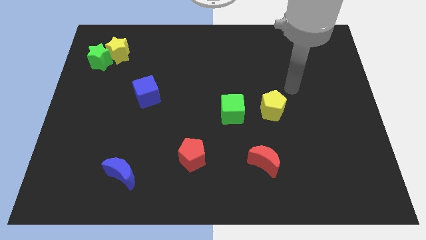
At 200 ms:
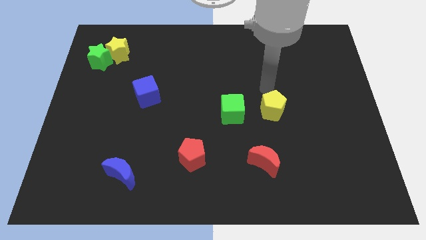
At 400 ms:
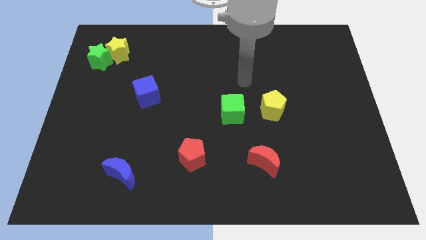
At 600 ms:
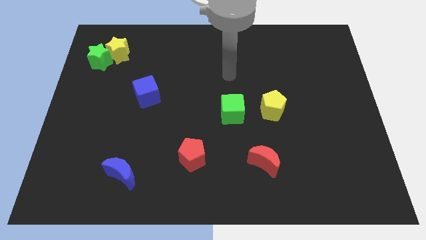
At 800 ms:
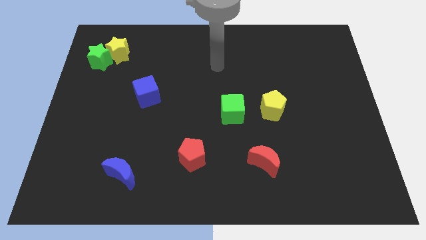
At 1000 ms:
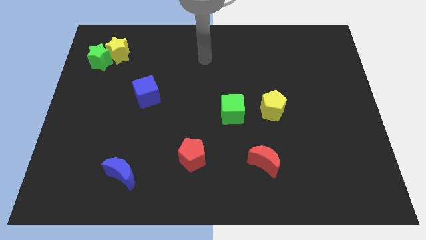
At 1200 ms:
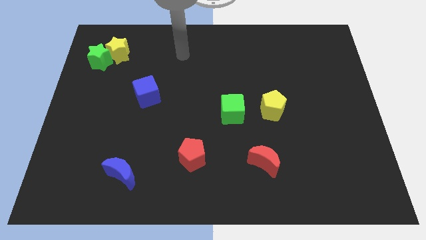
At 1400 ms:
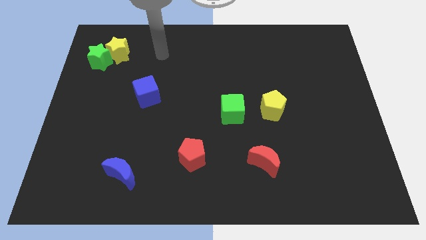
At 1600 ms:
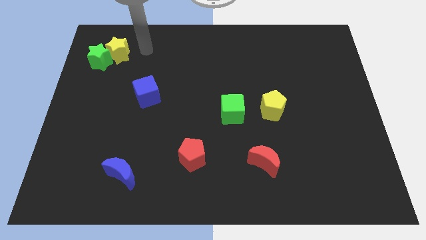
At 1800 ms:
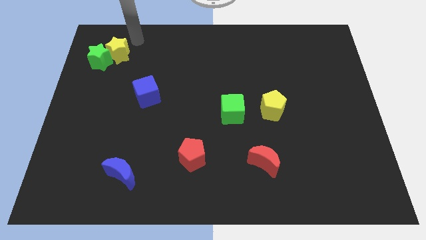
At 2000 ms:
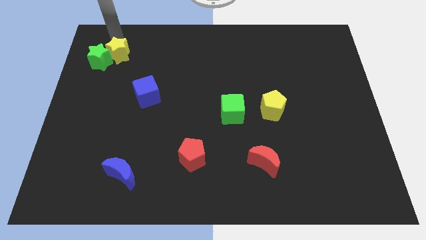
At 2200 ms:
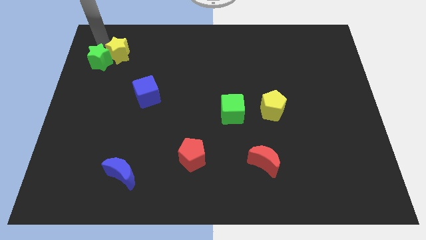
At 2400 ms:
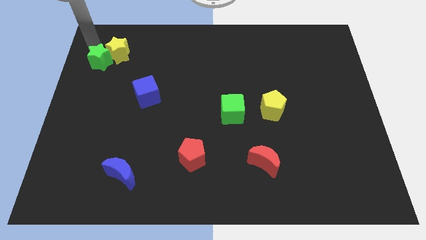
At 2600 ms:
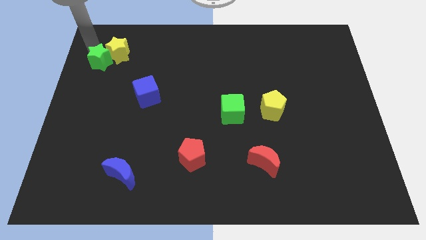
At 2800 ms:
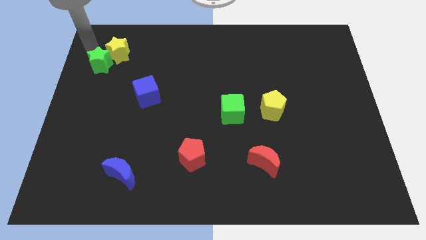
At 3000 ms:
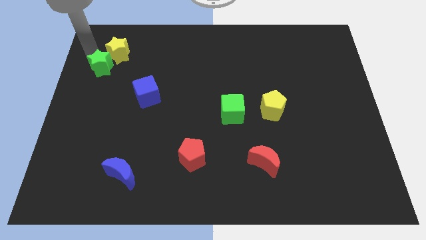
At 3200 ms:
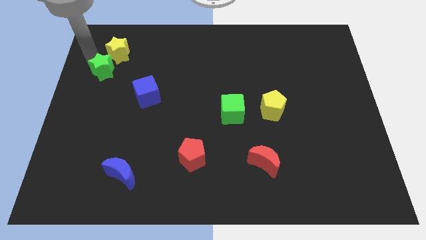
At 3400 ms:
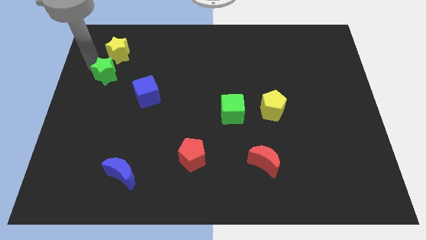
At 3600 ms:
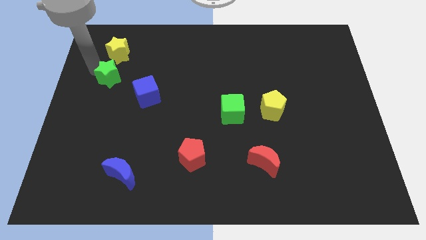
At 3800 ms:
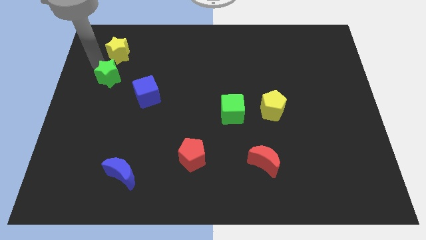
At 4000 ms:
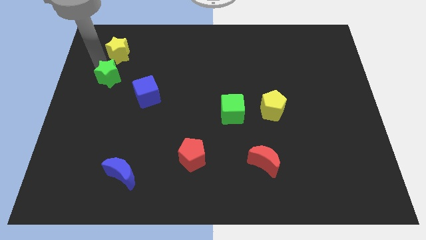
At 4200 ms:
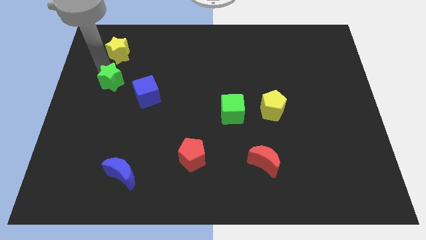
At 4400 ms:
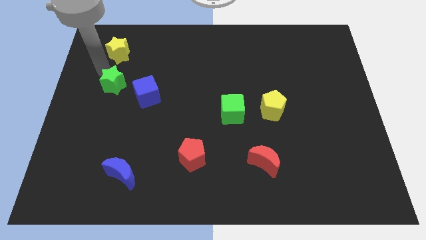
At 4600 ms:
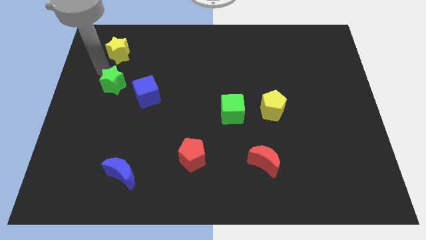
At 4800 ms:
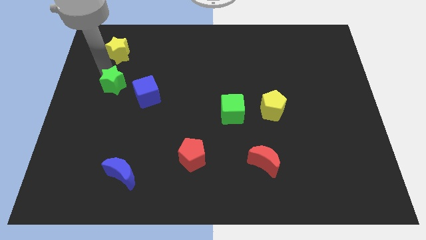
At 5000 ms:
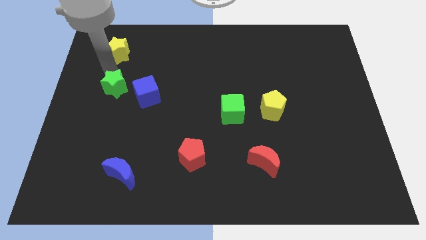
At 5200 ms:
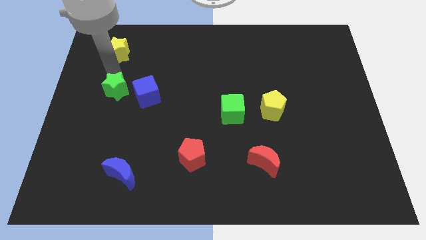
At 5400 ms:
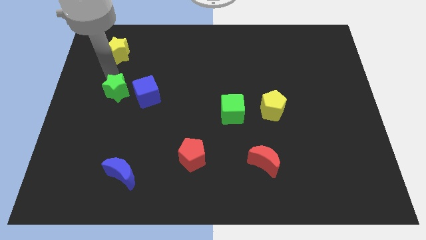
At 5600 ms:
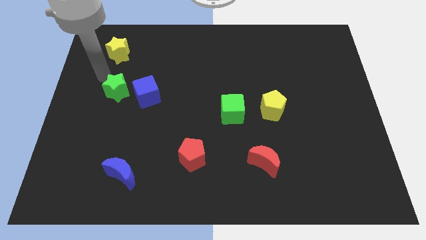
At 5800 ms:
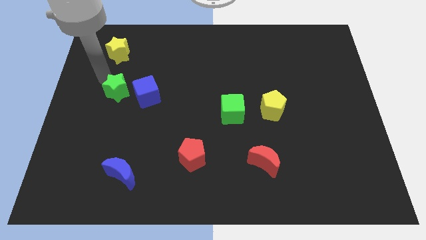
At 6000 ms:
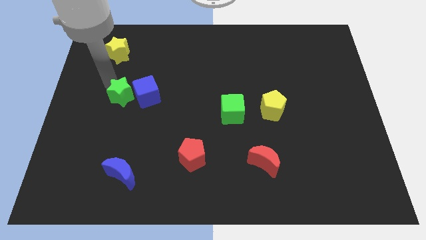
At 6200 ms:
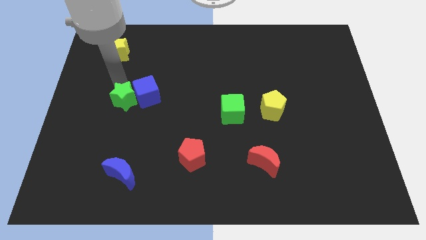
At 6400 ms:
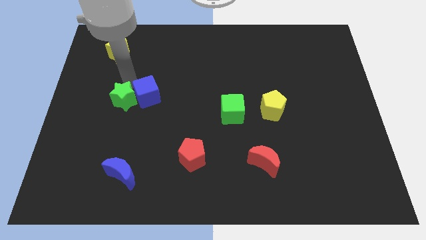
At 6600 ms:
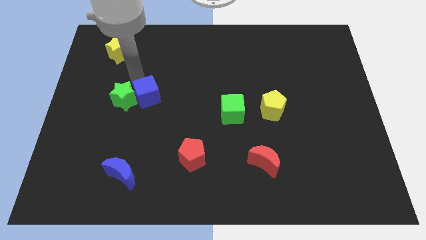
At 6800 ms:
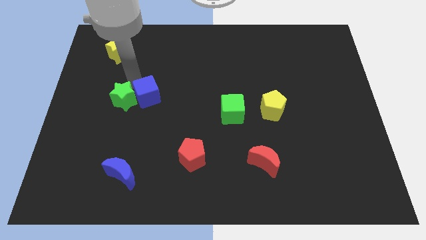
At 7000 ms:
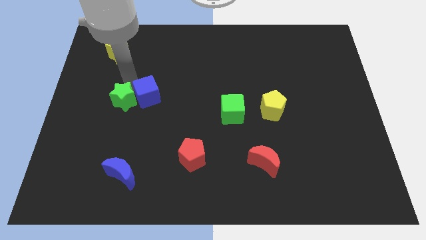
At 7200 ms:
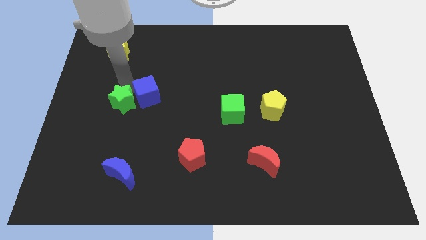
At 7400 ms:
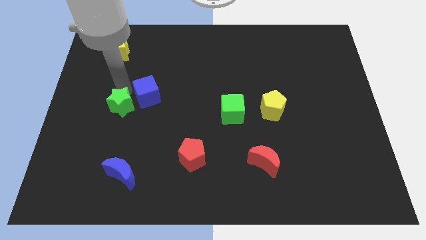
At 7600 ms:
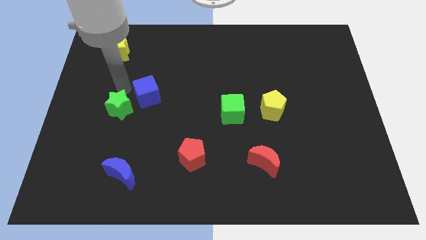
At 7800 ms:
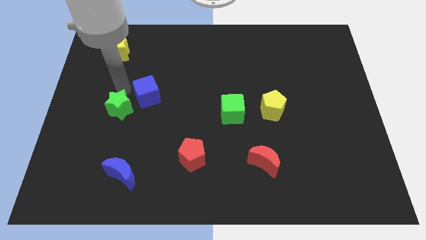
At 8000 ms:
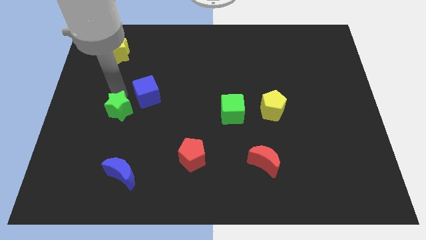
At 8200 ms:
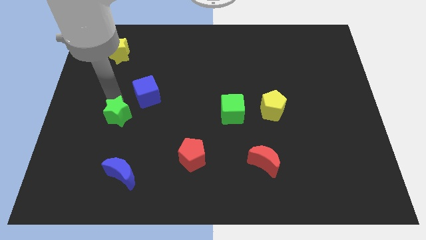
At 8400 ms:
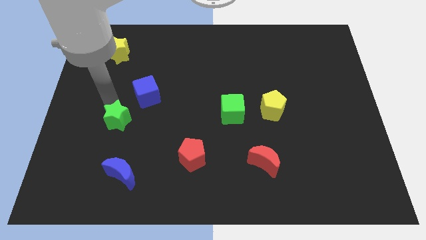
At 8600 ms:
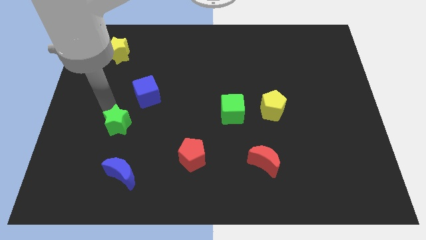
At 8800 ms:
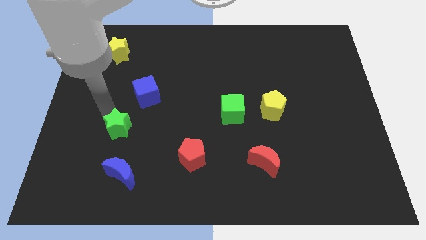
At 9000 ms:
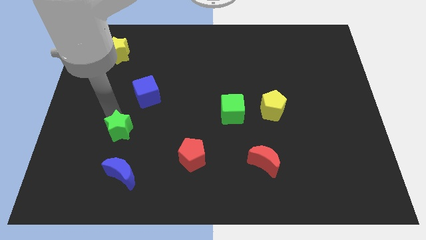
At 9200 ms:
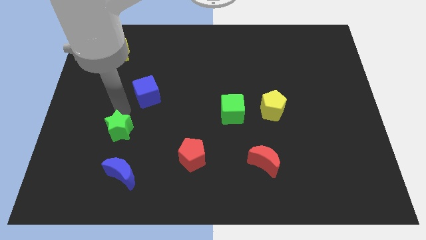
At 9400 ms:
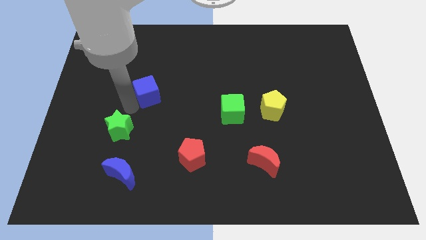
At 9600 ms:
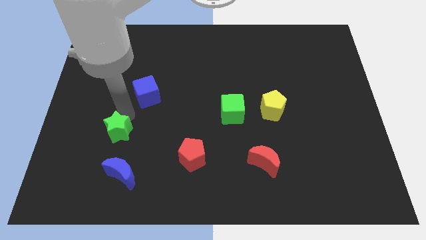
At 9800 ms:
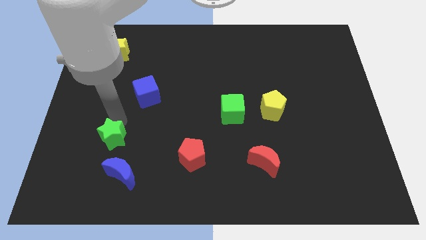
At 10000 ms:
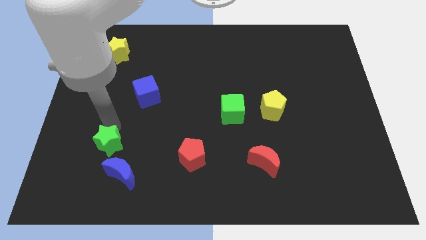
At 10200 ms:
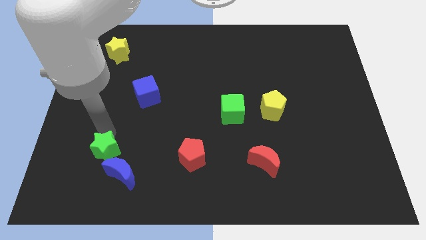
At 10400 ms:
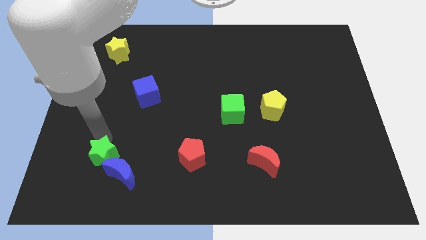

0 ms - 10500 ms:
slide the green star to the blue moon

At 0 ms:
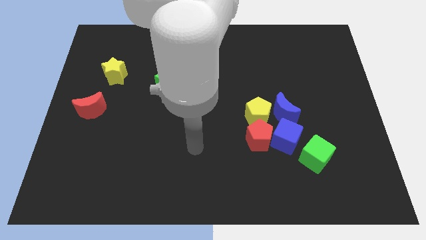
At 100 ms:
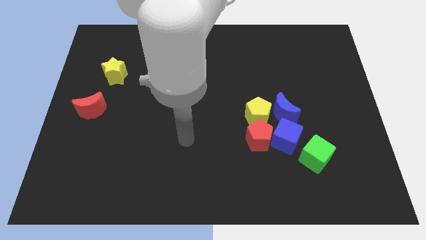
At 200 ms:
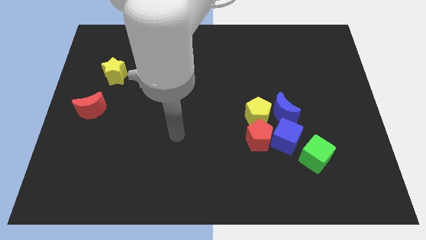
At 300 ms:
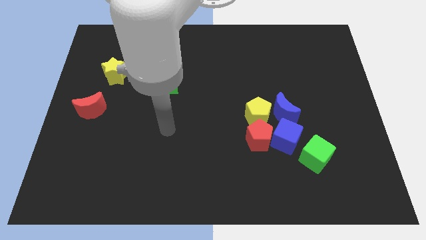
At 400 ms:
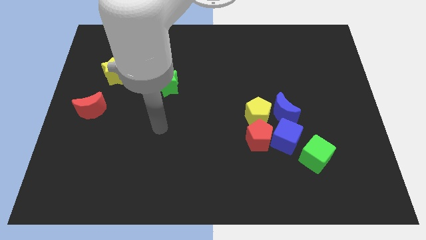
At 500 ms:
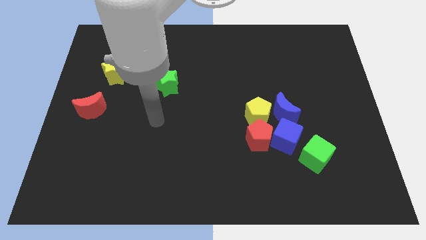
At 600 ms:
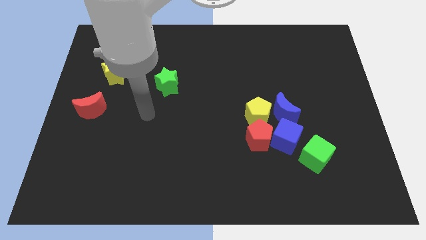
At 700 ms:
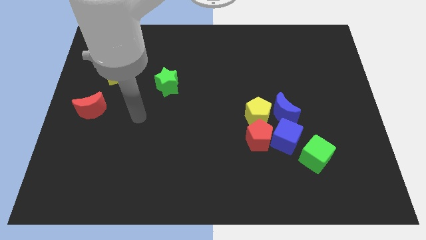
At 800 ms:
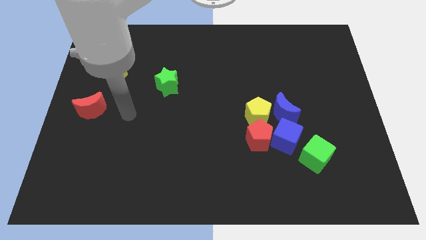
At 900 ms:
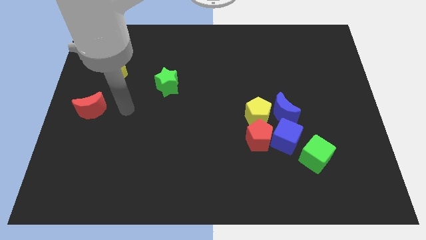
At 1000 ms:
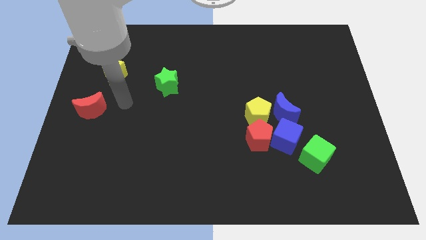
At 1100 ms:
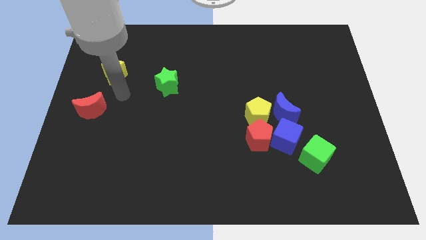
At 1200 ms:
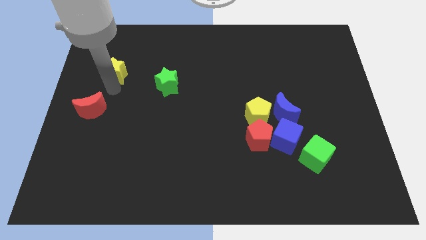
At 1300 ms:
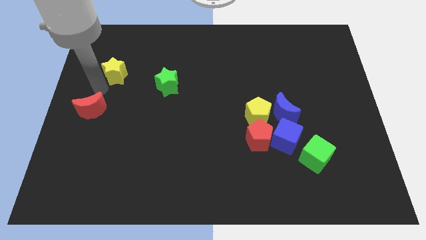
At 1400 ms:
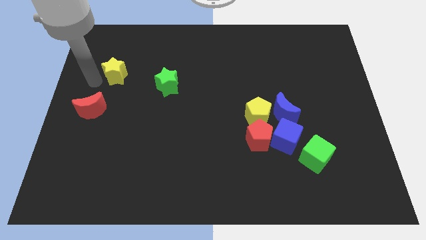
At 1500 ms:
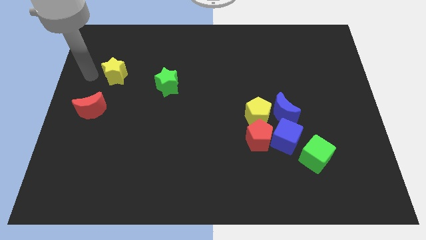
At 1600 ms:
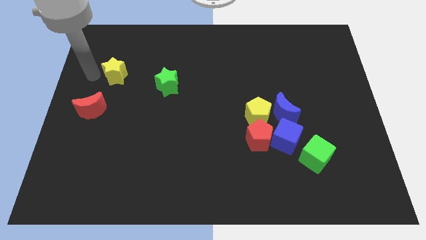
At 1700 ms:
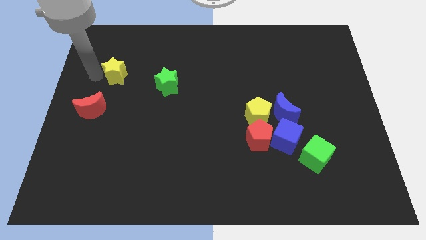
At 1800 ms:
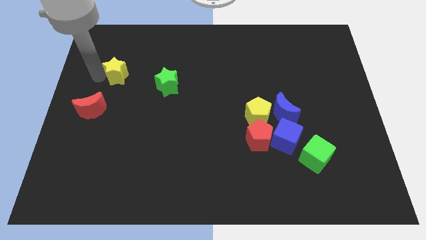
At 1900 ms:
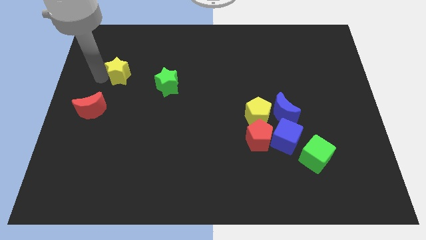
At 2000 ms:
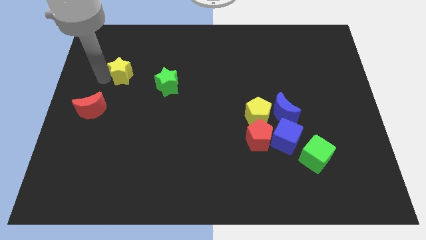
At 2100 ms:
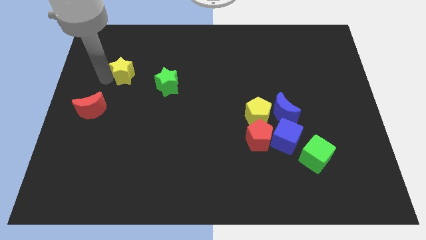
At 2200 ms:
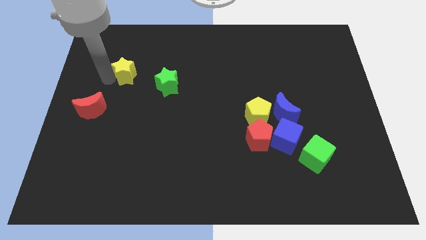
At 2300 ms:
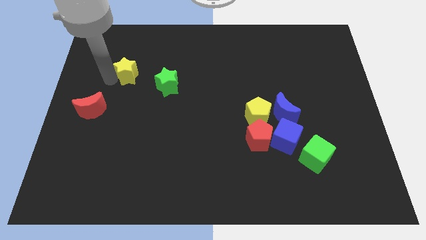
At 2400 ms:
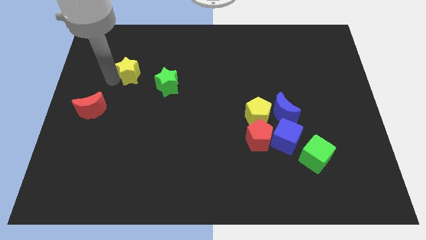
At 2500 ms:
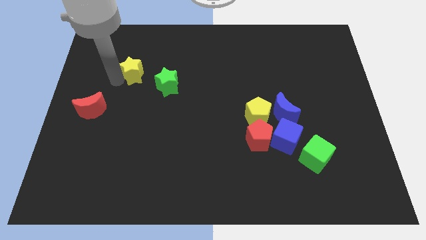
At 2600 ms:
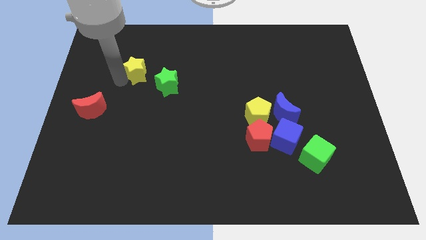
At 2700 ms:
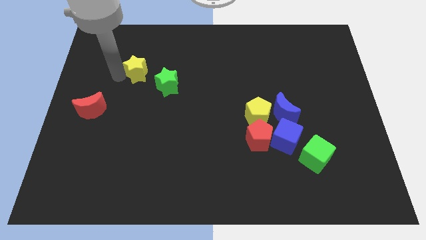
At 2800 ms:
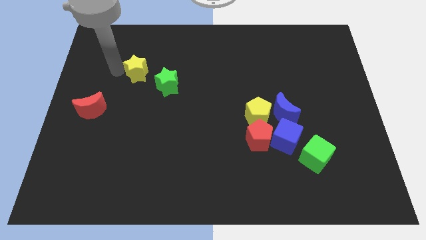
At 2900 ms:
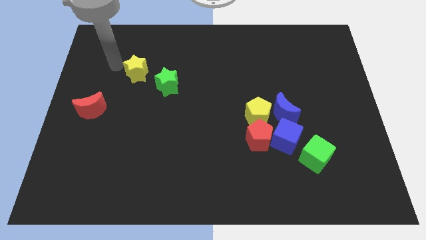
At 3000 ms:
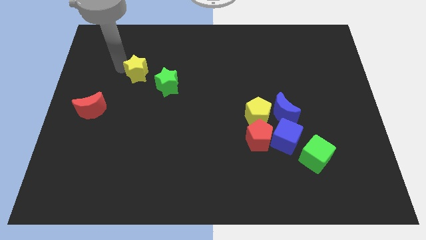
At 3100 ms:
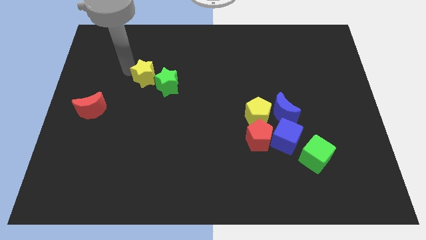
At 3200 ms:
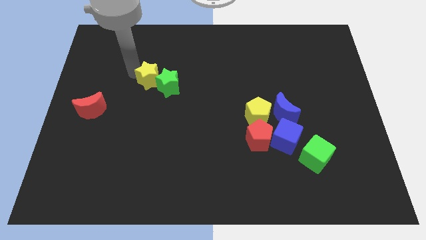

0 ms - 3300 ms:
push the yellow star close to the green star

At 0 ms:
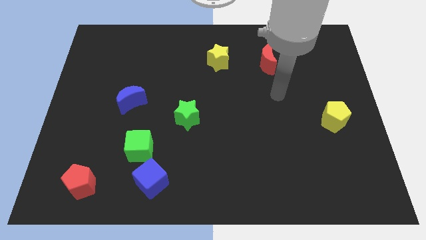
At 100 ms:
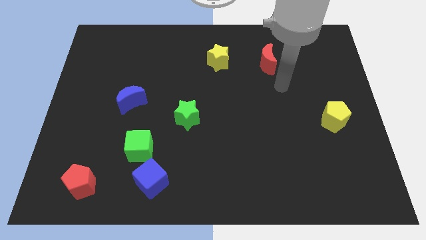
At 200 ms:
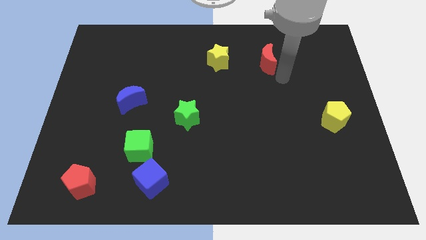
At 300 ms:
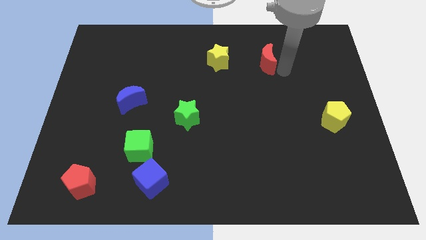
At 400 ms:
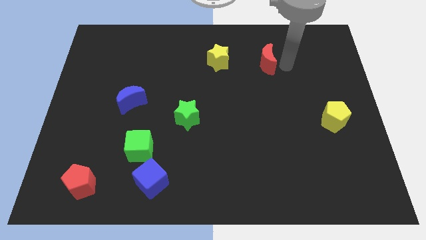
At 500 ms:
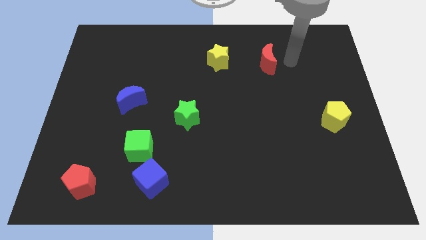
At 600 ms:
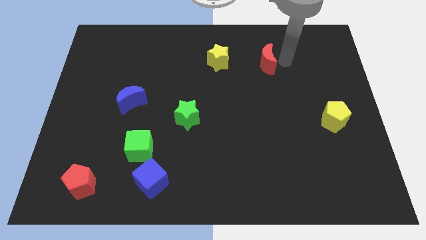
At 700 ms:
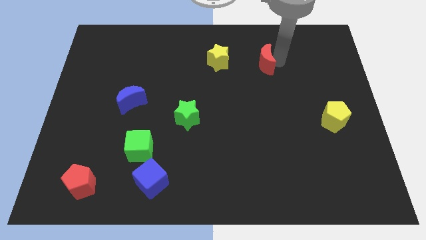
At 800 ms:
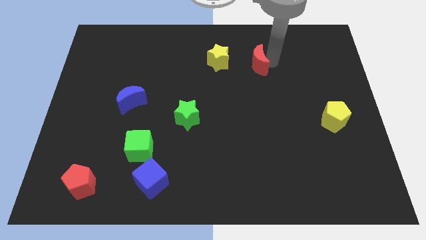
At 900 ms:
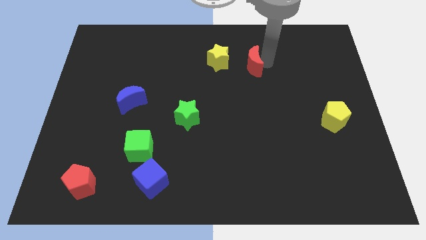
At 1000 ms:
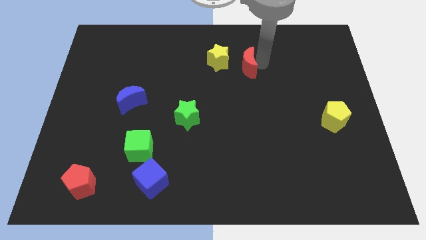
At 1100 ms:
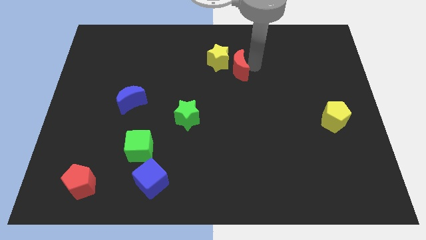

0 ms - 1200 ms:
move the red moon close to the yellow star
